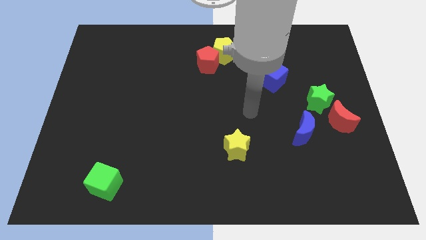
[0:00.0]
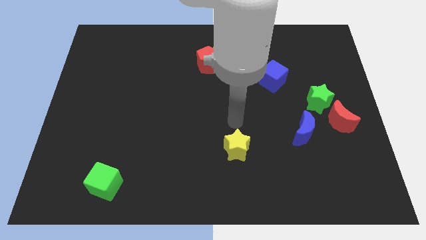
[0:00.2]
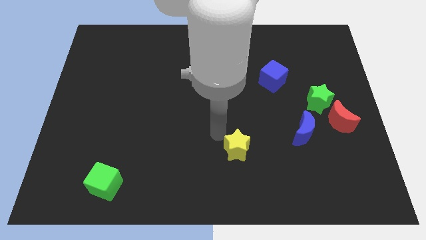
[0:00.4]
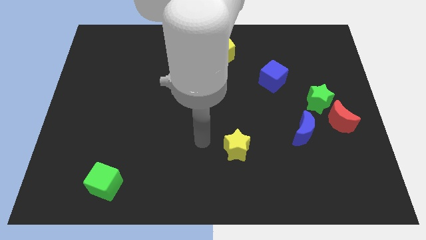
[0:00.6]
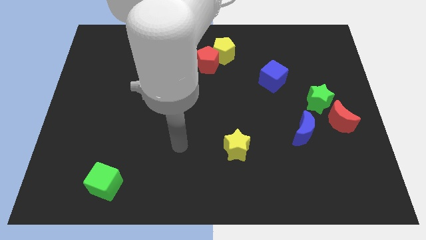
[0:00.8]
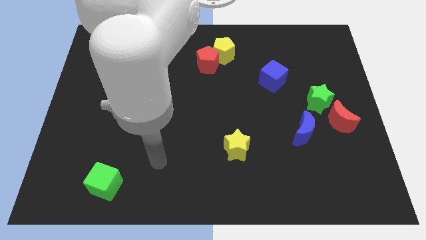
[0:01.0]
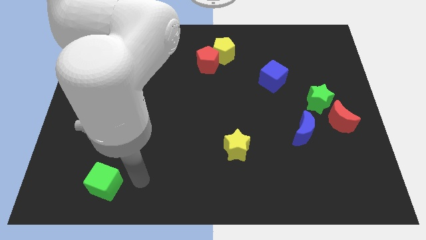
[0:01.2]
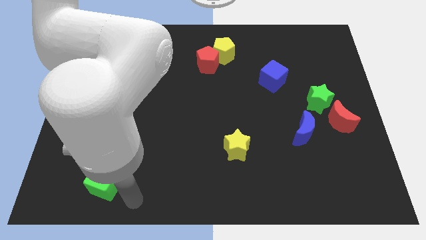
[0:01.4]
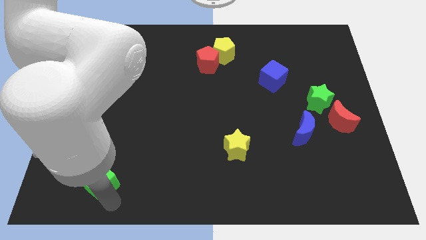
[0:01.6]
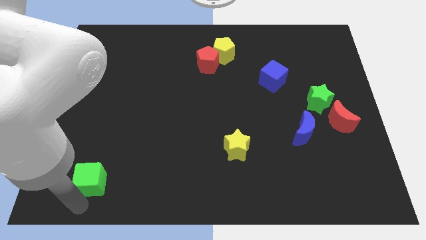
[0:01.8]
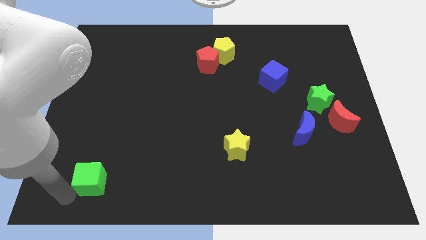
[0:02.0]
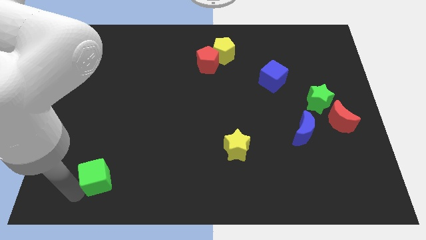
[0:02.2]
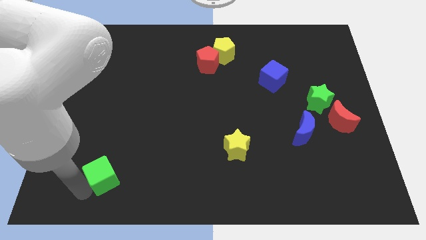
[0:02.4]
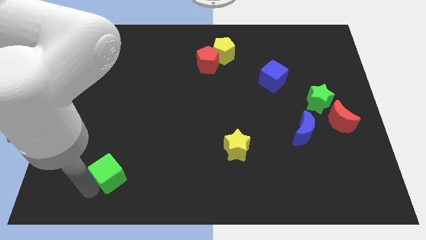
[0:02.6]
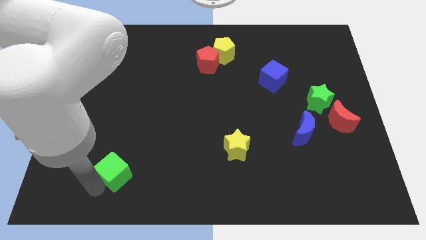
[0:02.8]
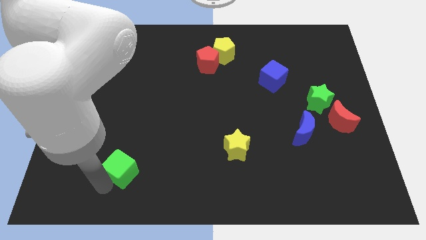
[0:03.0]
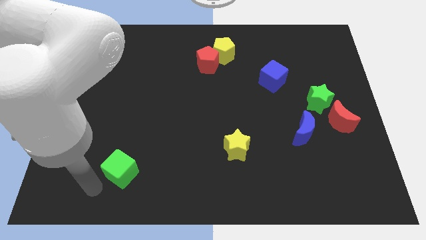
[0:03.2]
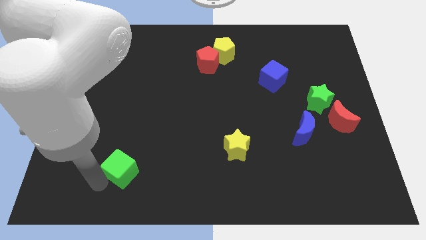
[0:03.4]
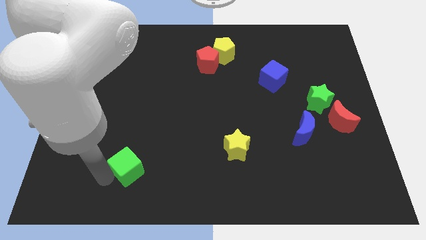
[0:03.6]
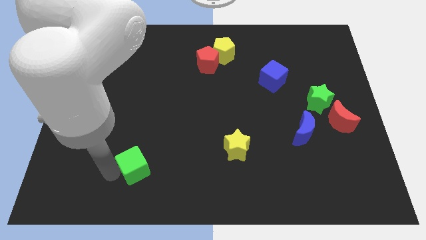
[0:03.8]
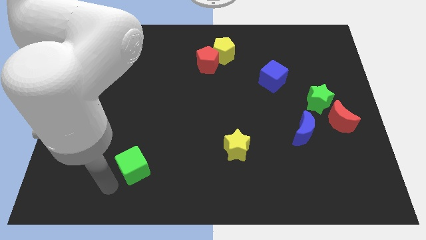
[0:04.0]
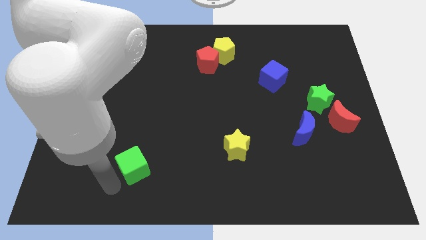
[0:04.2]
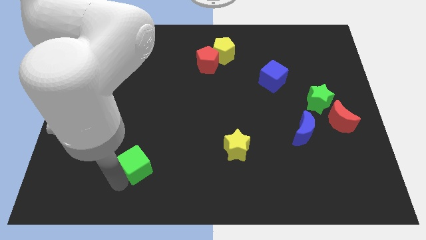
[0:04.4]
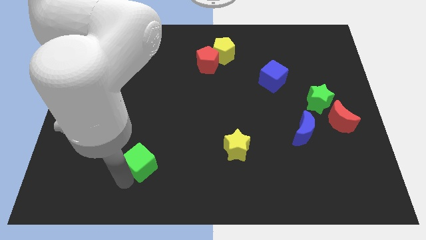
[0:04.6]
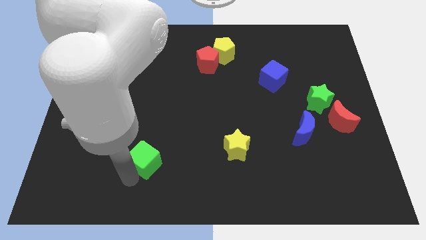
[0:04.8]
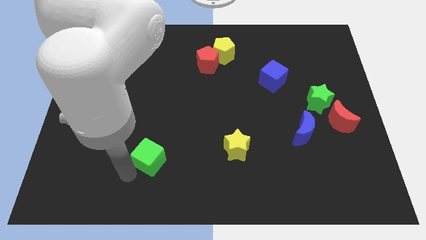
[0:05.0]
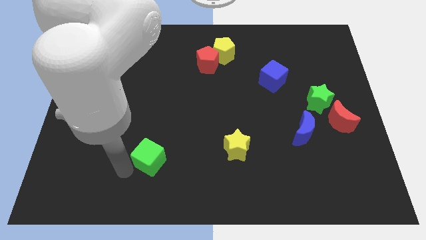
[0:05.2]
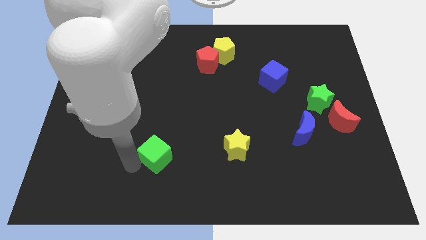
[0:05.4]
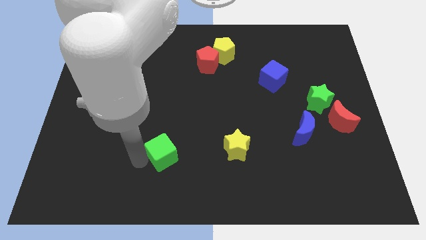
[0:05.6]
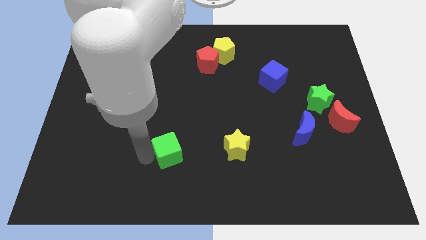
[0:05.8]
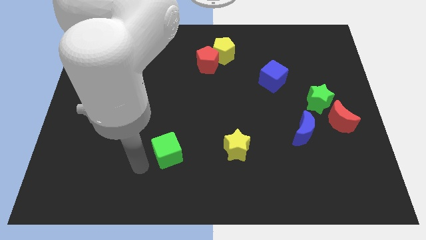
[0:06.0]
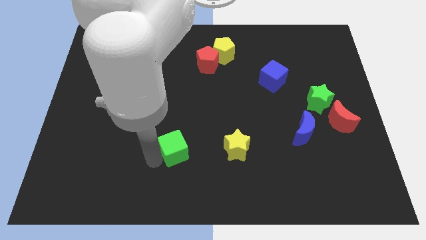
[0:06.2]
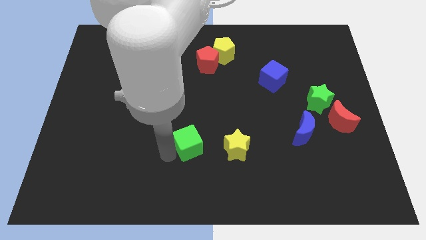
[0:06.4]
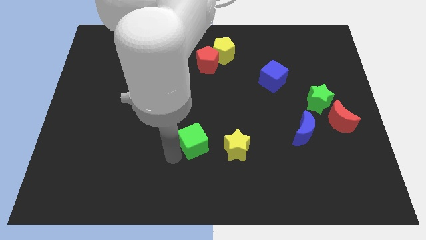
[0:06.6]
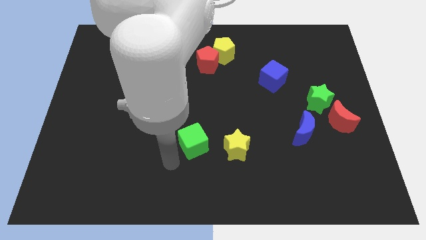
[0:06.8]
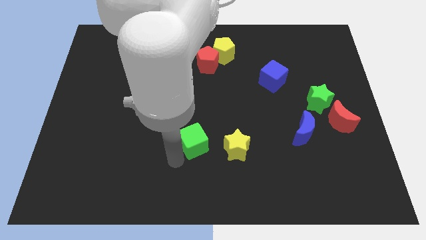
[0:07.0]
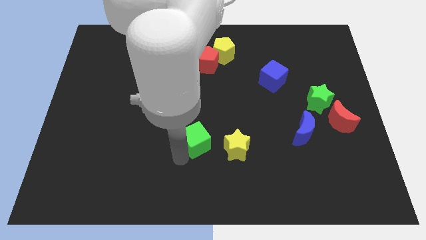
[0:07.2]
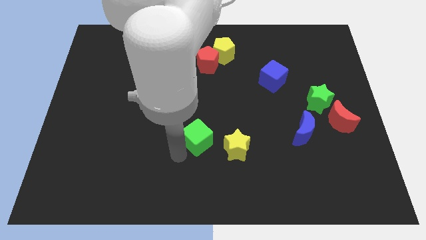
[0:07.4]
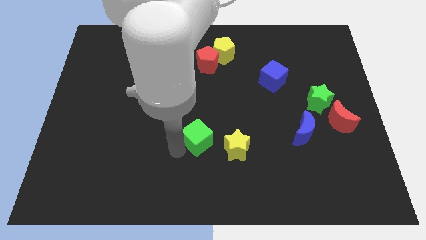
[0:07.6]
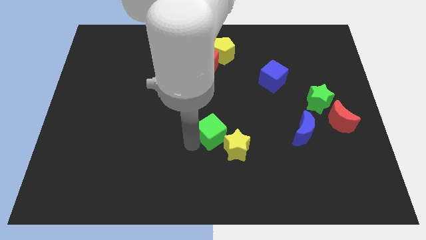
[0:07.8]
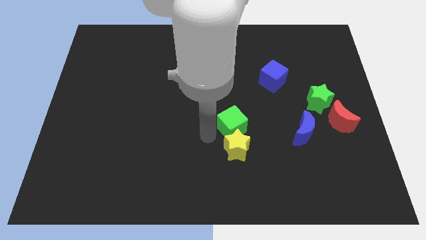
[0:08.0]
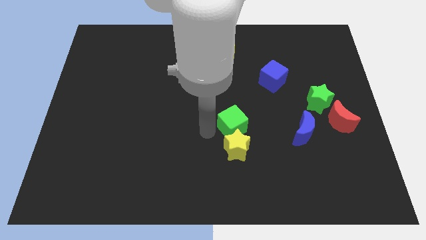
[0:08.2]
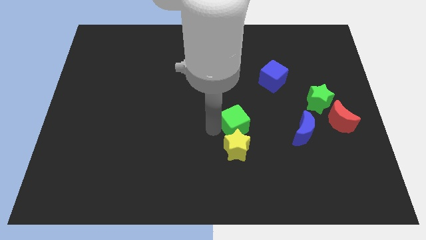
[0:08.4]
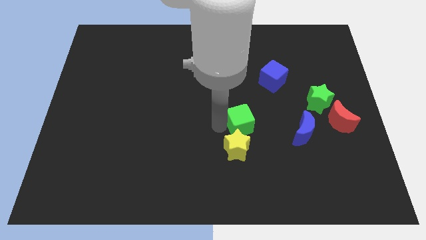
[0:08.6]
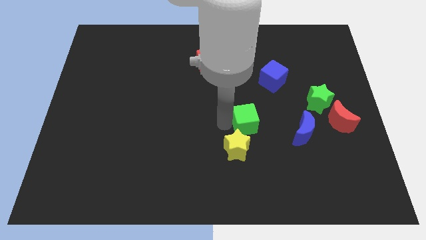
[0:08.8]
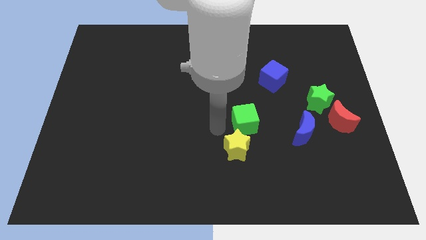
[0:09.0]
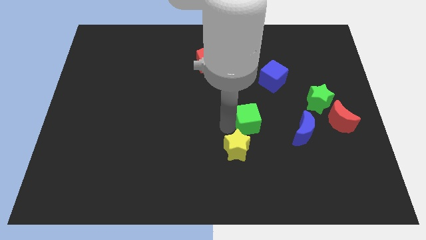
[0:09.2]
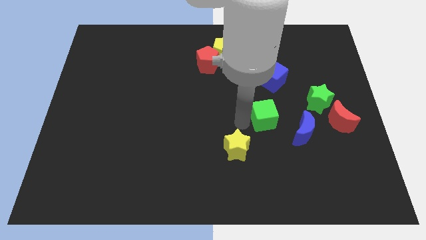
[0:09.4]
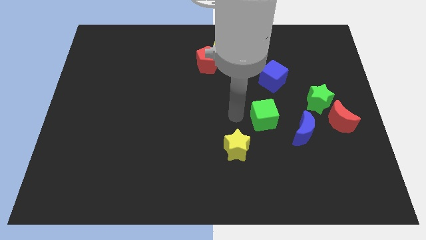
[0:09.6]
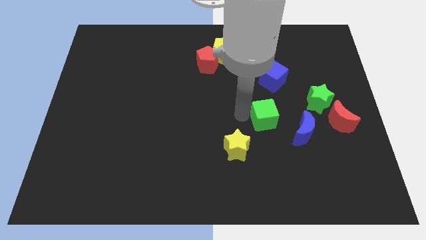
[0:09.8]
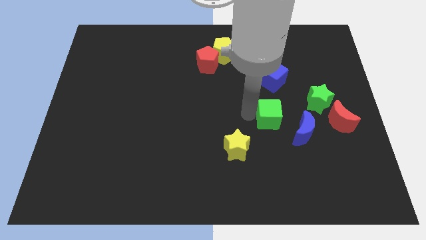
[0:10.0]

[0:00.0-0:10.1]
push the green cube just left of the red moon

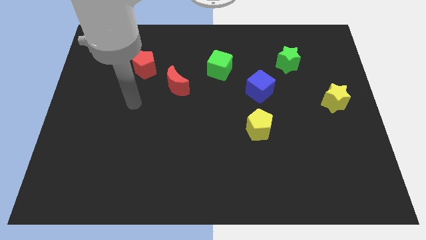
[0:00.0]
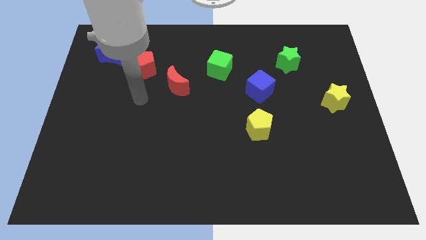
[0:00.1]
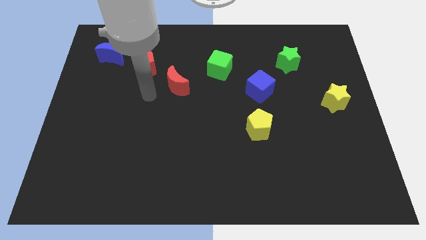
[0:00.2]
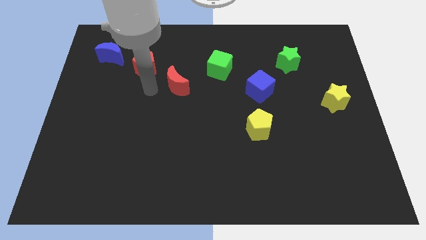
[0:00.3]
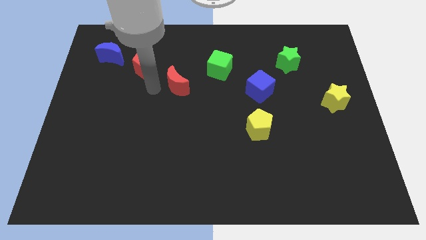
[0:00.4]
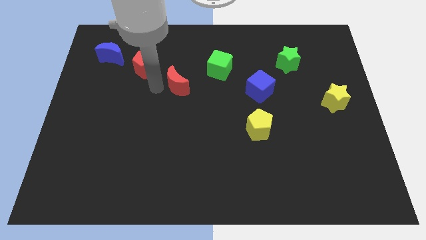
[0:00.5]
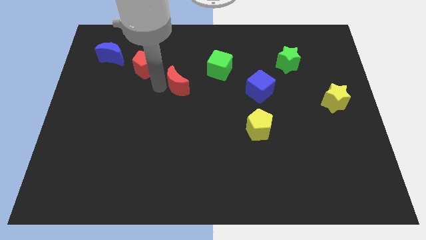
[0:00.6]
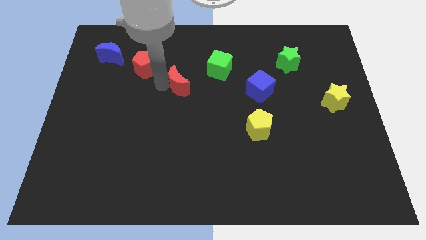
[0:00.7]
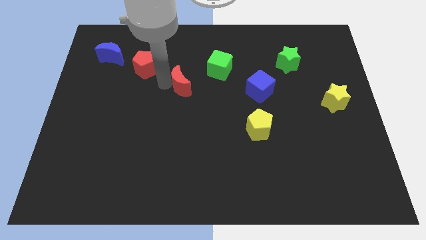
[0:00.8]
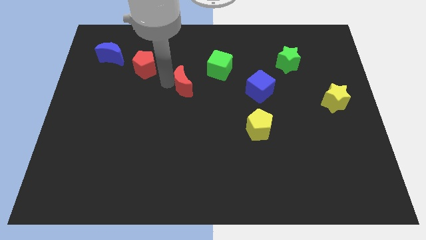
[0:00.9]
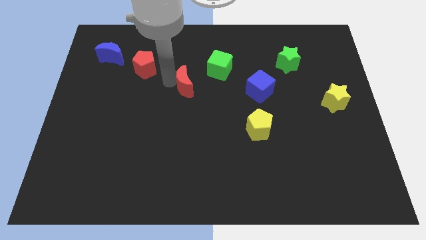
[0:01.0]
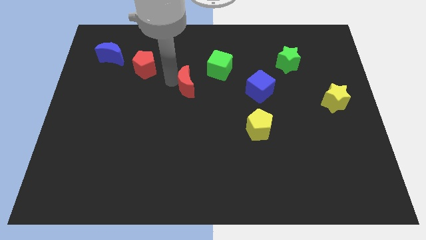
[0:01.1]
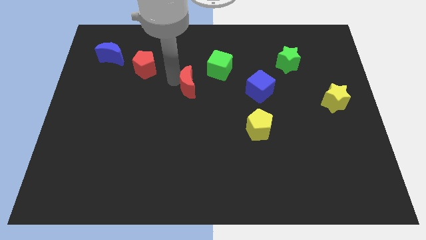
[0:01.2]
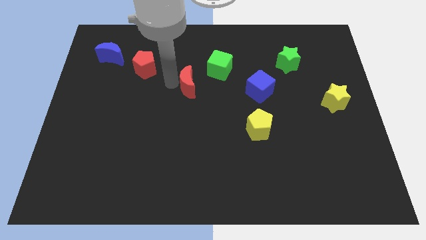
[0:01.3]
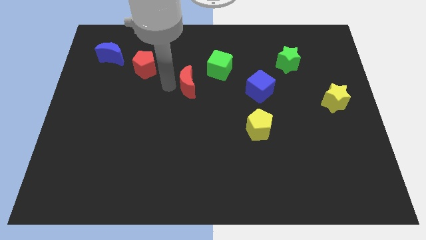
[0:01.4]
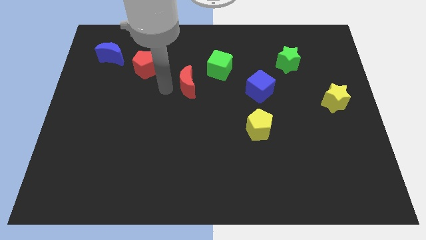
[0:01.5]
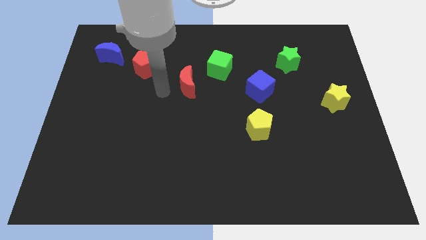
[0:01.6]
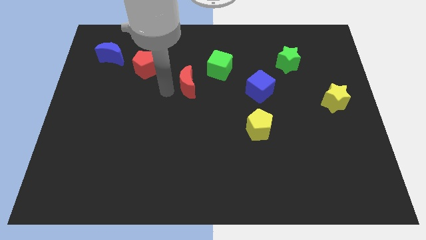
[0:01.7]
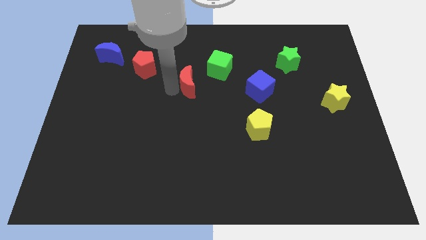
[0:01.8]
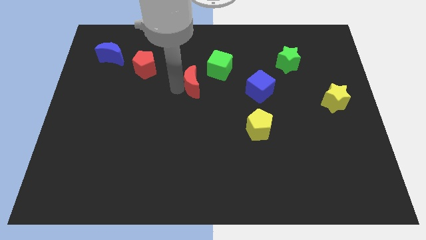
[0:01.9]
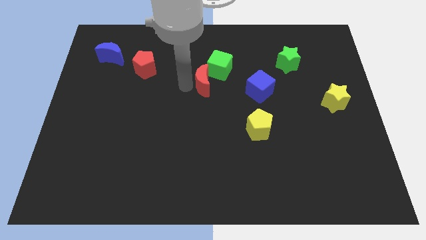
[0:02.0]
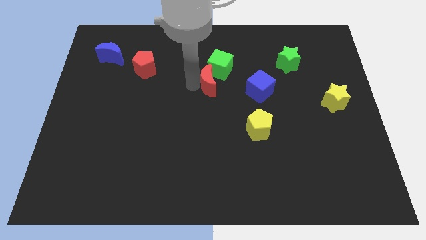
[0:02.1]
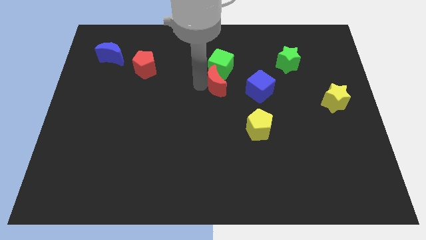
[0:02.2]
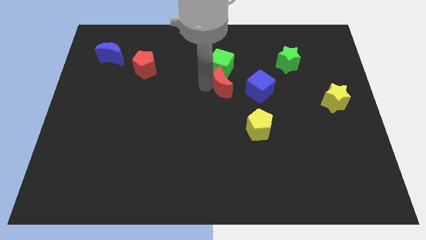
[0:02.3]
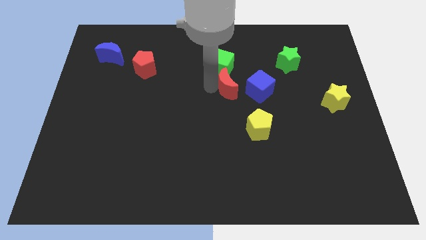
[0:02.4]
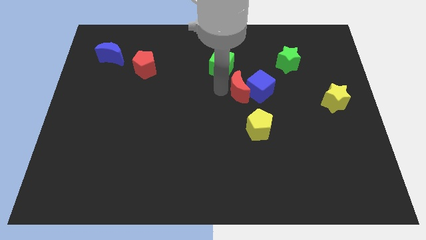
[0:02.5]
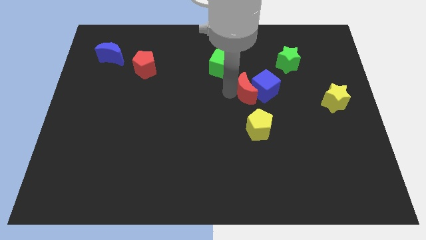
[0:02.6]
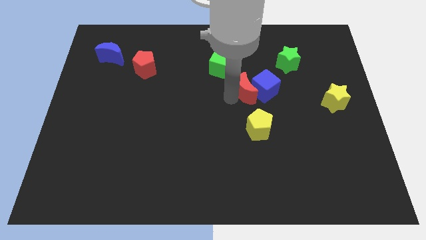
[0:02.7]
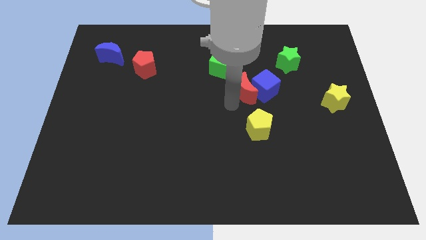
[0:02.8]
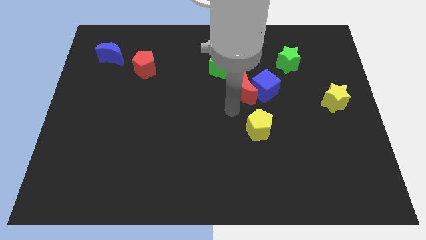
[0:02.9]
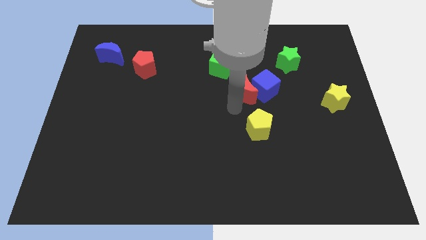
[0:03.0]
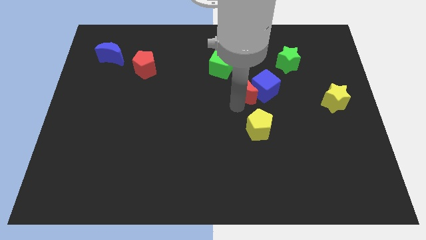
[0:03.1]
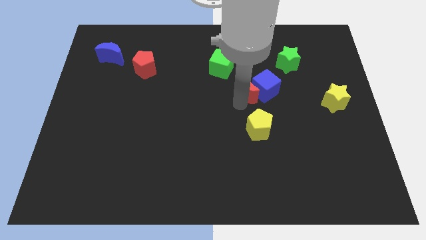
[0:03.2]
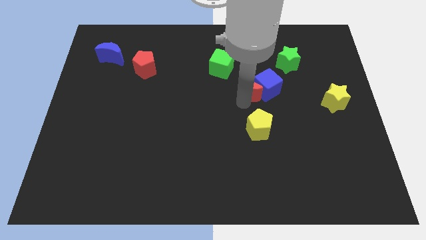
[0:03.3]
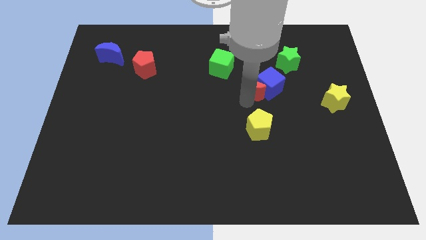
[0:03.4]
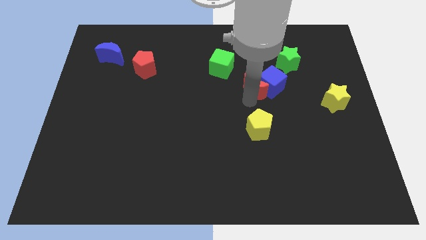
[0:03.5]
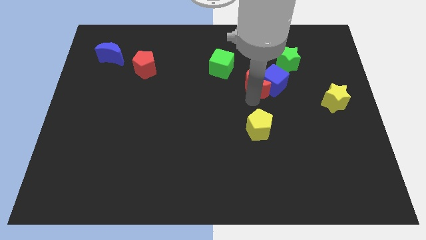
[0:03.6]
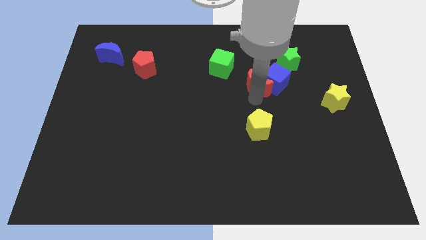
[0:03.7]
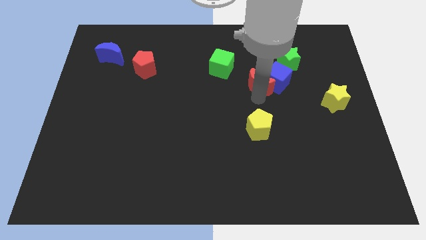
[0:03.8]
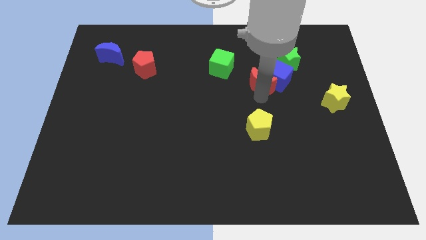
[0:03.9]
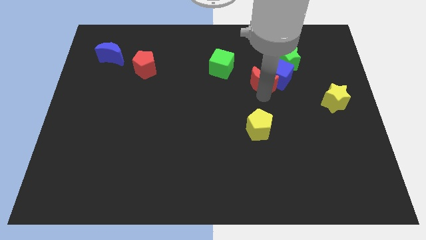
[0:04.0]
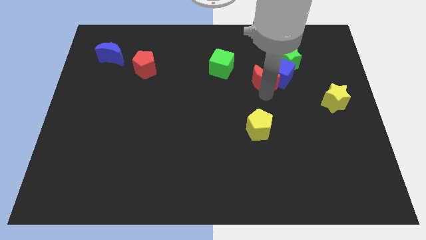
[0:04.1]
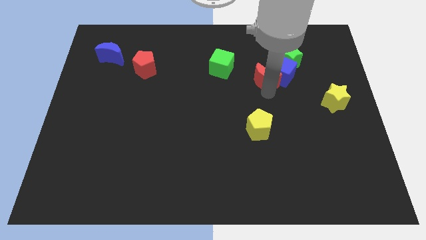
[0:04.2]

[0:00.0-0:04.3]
move the red moon to the right side of the green cube
